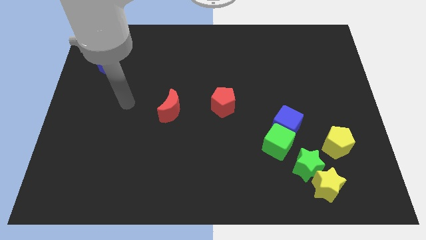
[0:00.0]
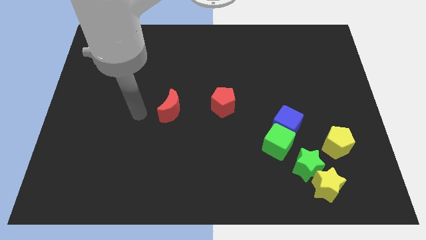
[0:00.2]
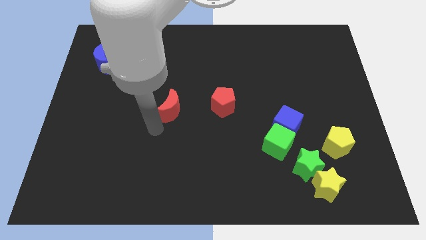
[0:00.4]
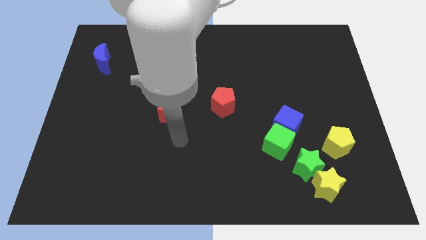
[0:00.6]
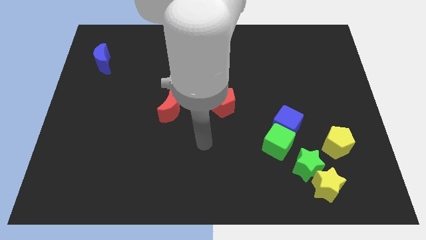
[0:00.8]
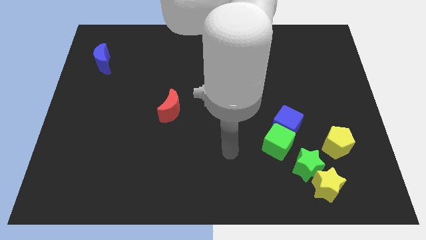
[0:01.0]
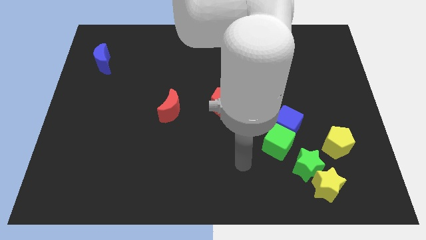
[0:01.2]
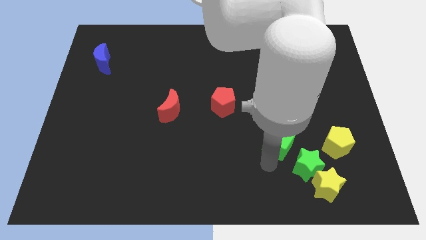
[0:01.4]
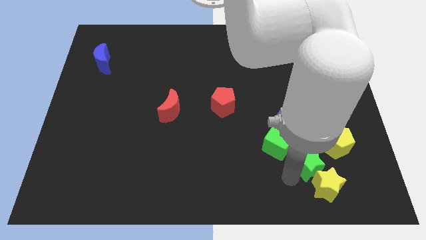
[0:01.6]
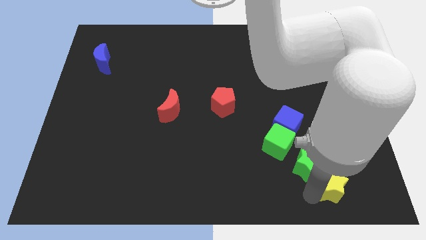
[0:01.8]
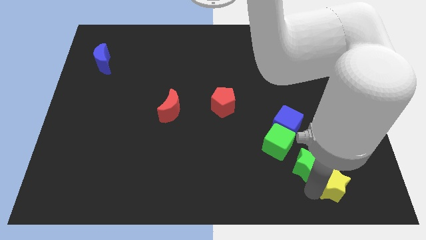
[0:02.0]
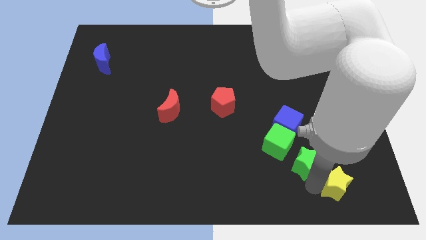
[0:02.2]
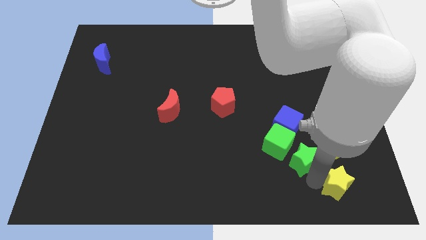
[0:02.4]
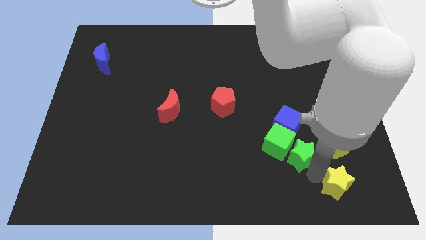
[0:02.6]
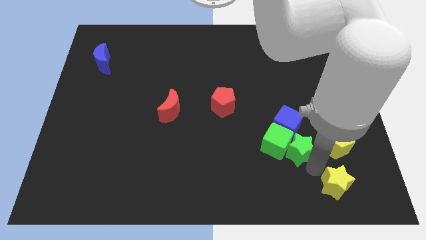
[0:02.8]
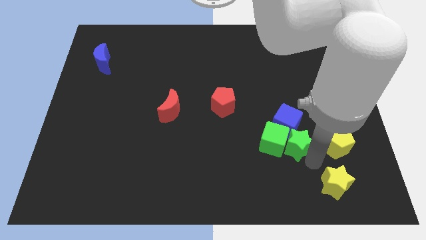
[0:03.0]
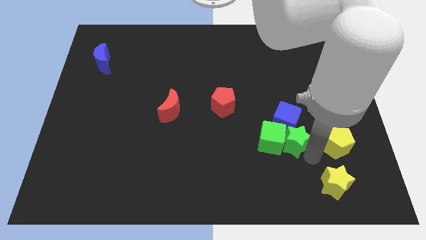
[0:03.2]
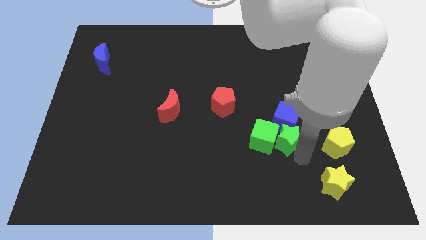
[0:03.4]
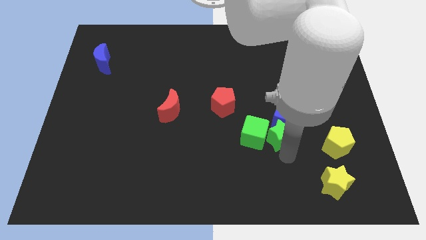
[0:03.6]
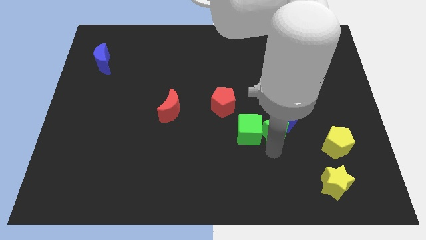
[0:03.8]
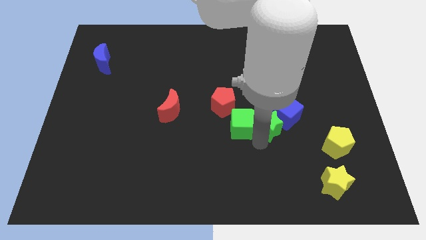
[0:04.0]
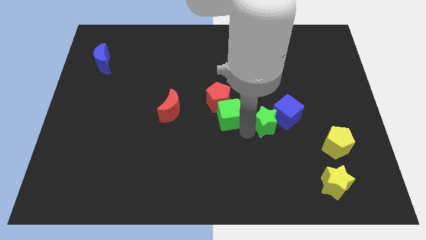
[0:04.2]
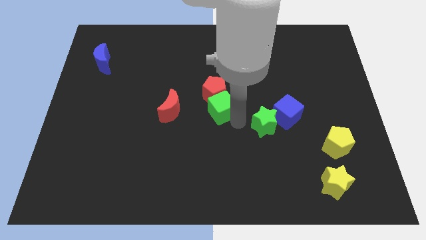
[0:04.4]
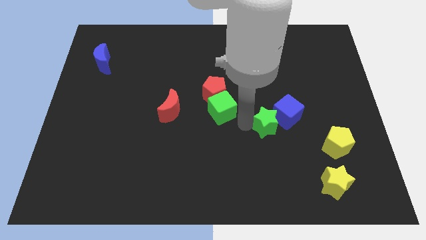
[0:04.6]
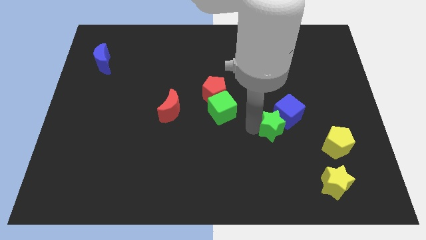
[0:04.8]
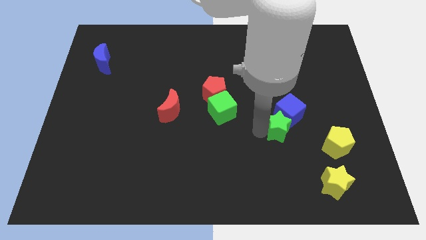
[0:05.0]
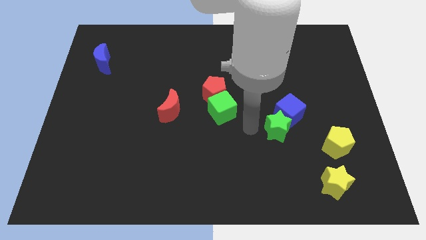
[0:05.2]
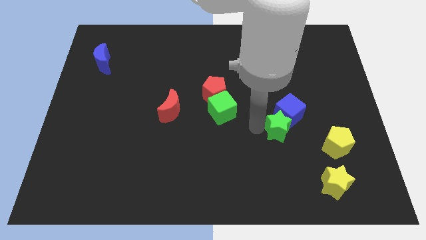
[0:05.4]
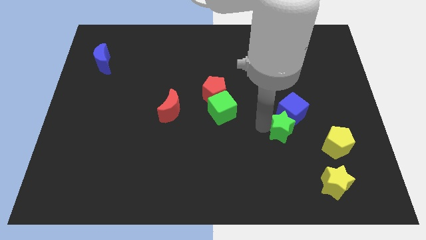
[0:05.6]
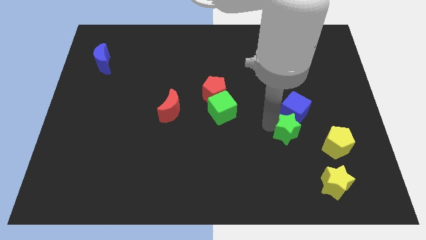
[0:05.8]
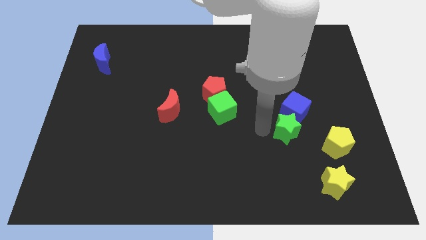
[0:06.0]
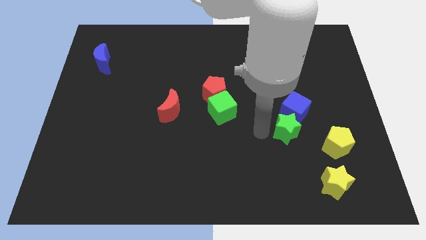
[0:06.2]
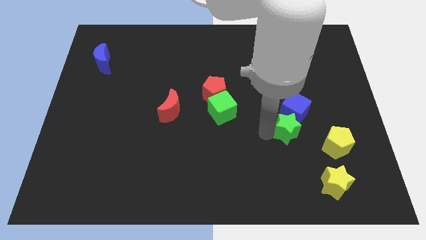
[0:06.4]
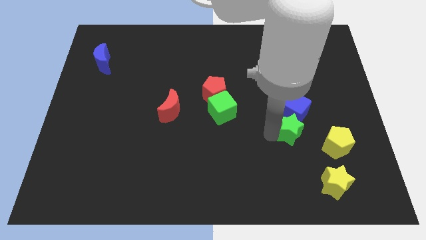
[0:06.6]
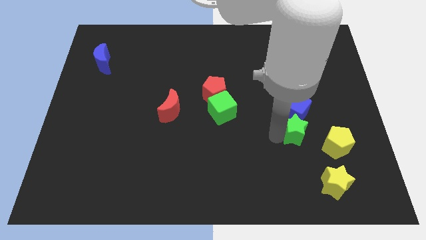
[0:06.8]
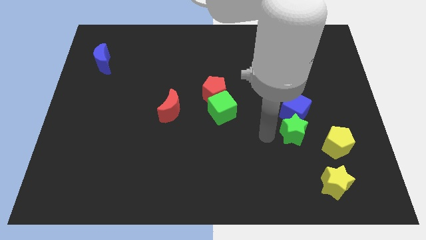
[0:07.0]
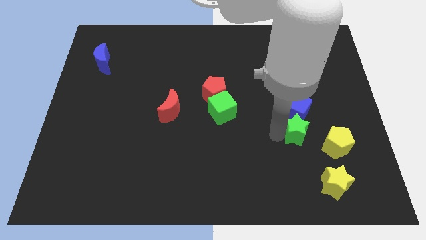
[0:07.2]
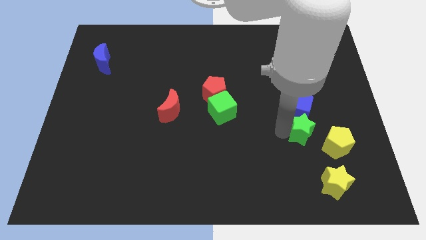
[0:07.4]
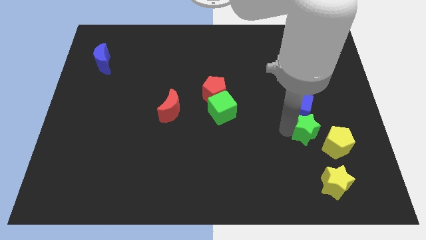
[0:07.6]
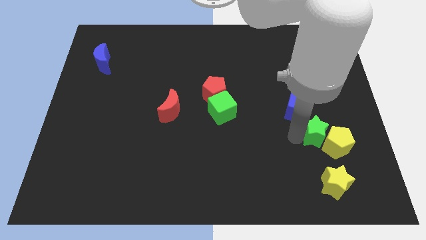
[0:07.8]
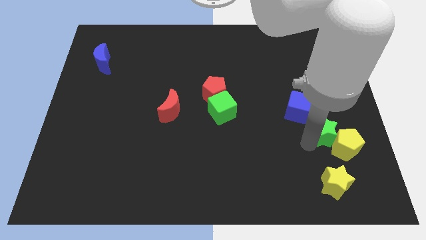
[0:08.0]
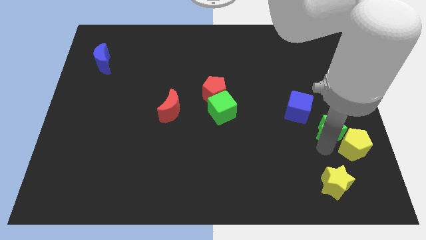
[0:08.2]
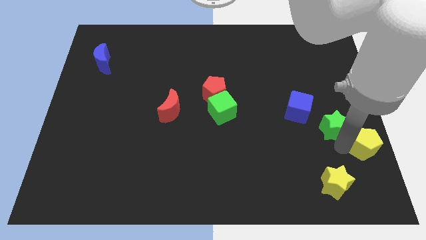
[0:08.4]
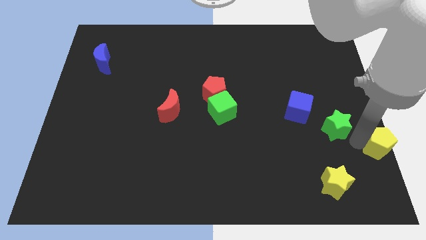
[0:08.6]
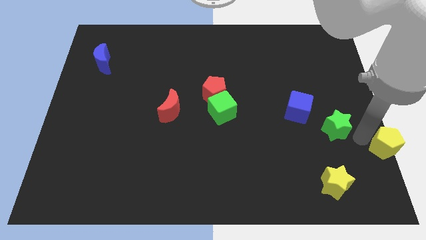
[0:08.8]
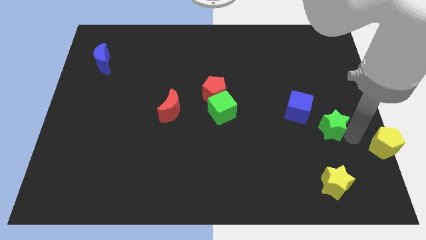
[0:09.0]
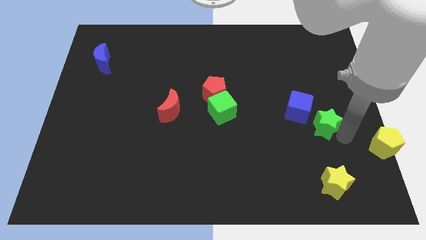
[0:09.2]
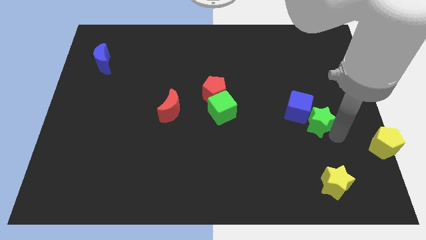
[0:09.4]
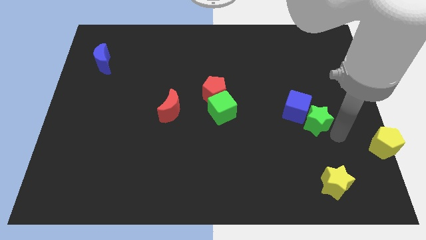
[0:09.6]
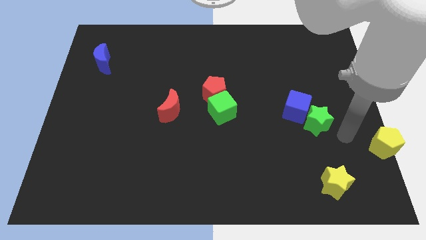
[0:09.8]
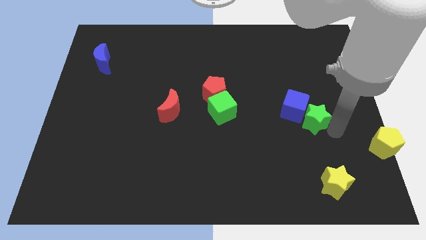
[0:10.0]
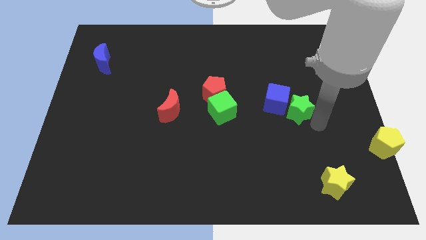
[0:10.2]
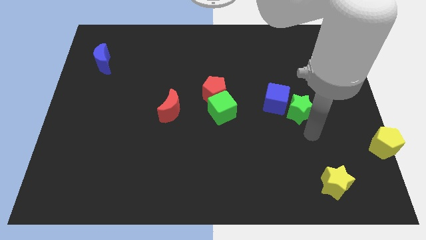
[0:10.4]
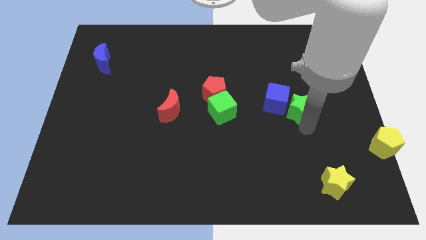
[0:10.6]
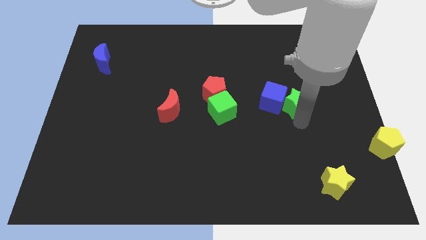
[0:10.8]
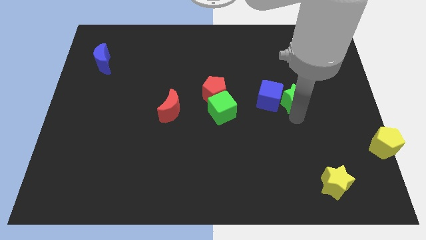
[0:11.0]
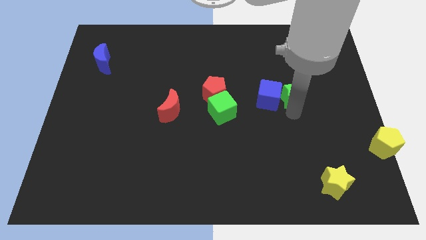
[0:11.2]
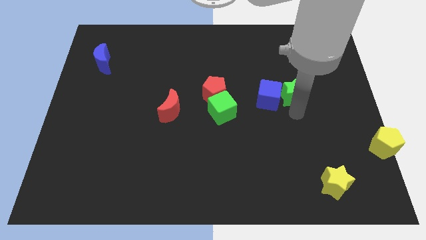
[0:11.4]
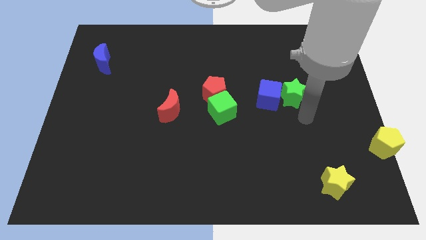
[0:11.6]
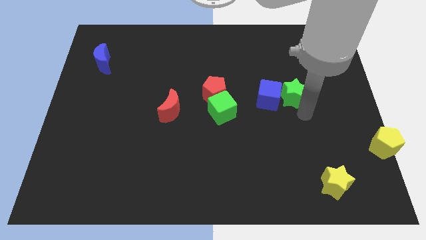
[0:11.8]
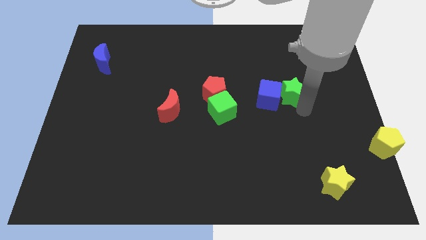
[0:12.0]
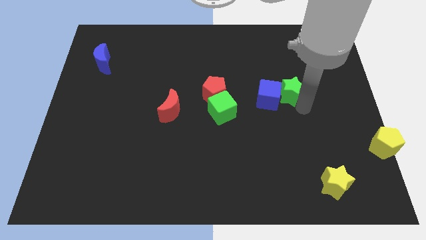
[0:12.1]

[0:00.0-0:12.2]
move the green star upwards

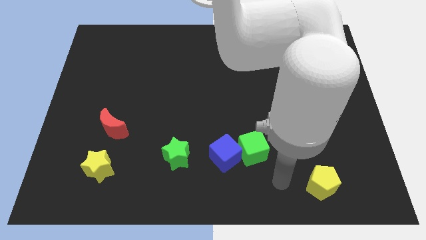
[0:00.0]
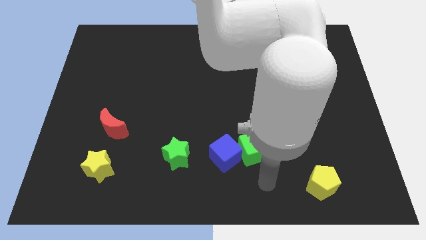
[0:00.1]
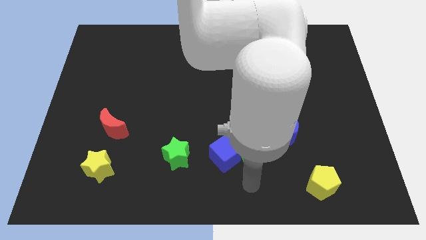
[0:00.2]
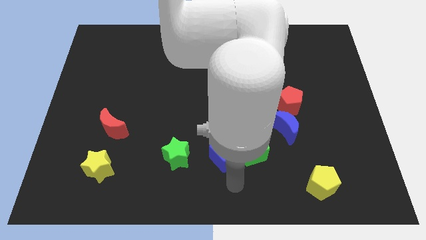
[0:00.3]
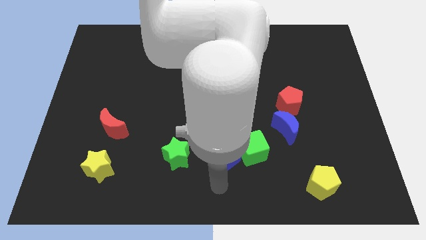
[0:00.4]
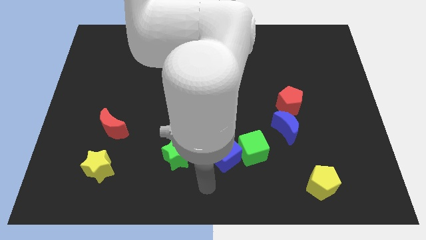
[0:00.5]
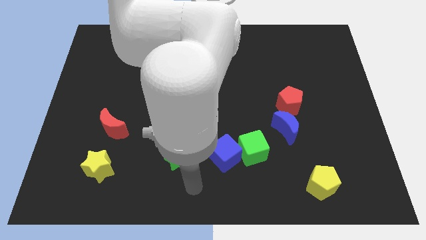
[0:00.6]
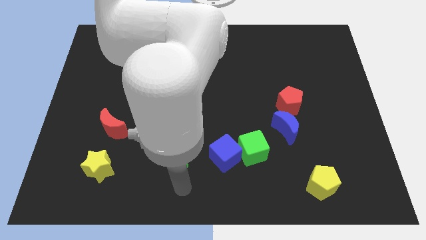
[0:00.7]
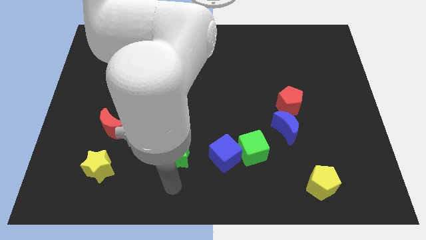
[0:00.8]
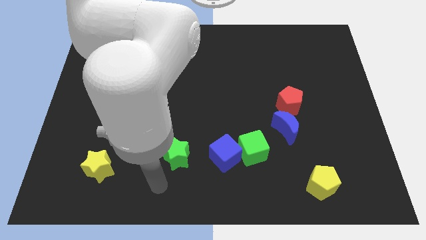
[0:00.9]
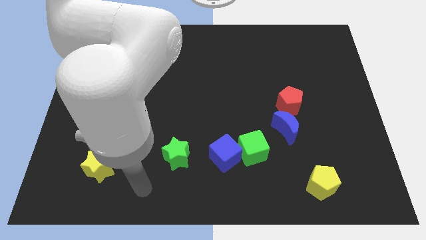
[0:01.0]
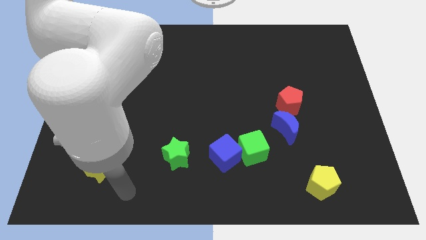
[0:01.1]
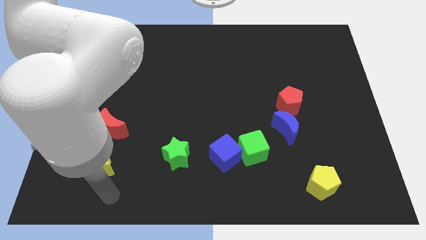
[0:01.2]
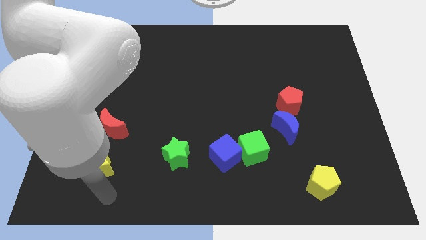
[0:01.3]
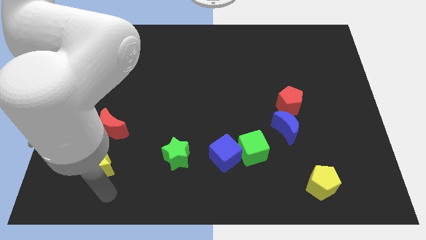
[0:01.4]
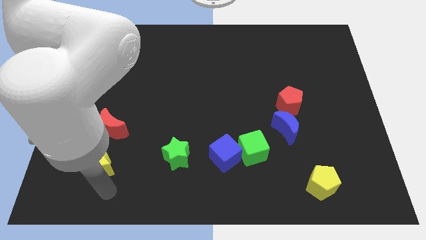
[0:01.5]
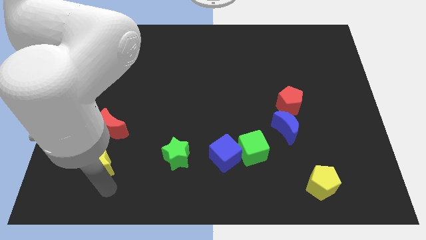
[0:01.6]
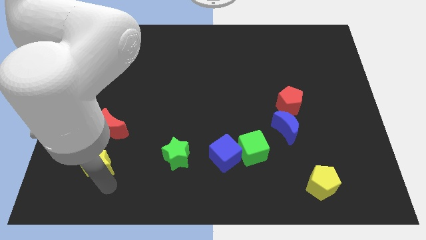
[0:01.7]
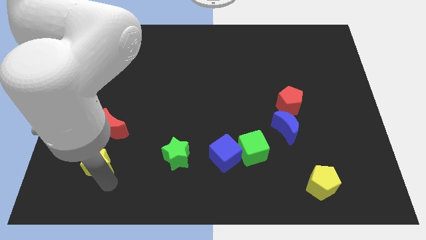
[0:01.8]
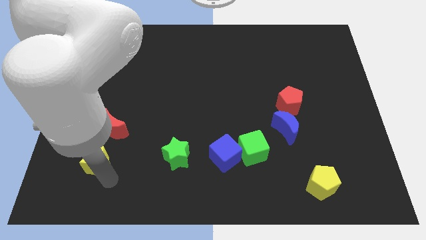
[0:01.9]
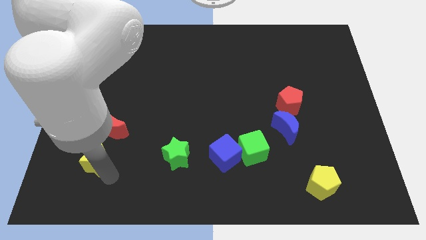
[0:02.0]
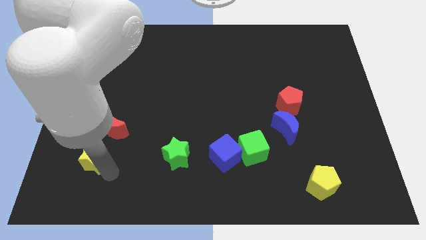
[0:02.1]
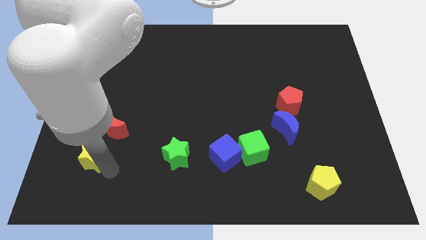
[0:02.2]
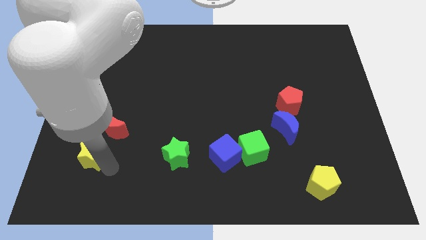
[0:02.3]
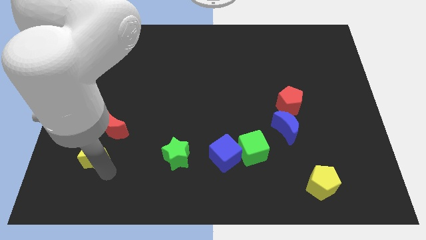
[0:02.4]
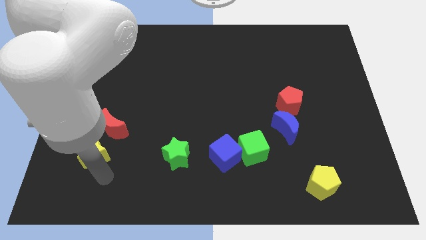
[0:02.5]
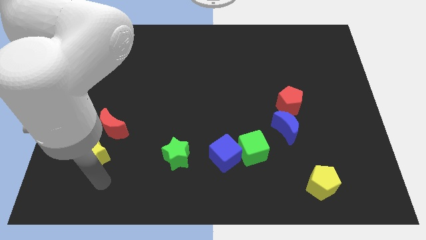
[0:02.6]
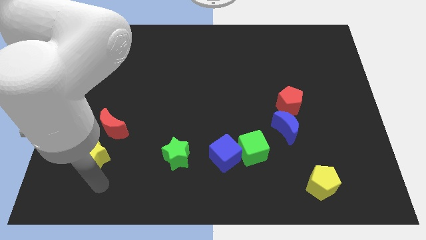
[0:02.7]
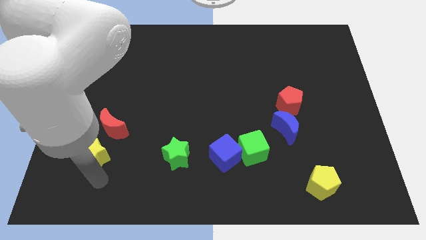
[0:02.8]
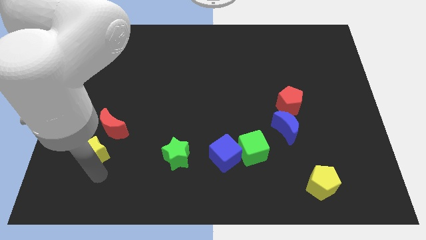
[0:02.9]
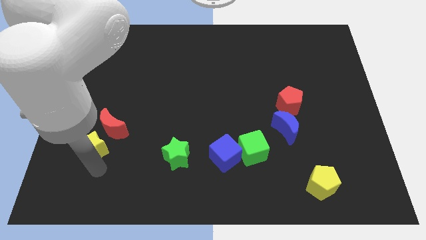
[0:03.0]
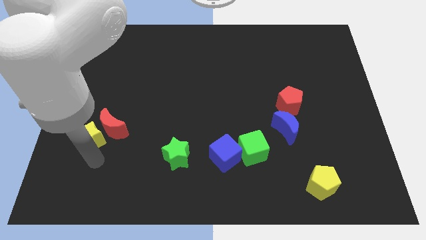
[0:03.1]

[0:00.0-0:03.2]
push the yellow star upwards a bit
